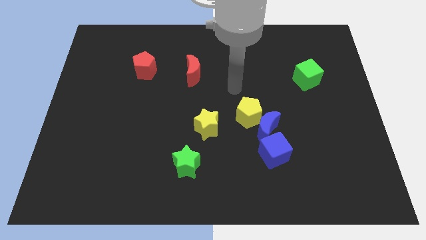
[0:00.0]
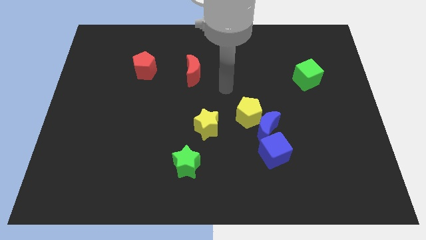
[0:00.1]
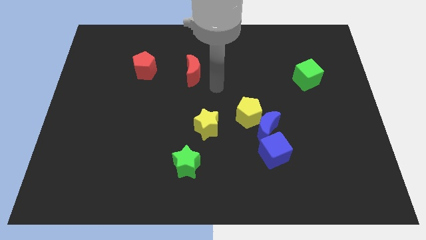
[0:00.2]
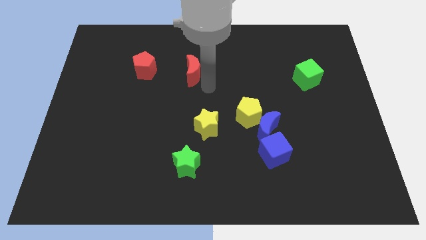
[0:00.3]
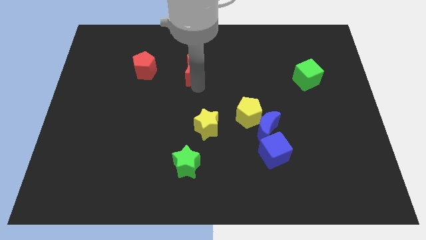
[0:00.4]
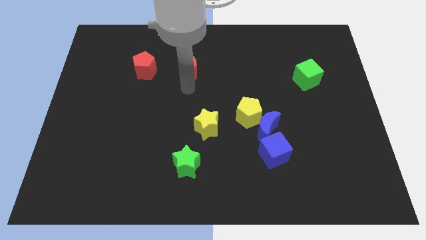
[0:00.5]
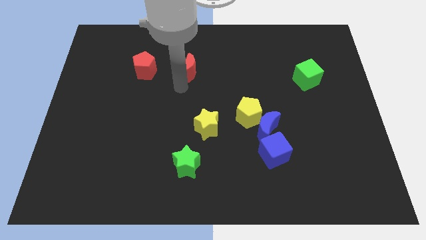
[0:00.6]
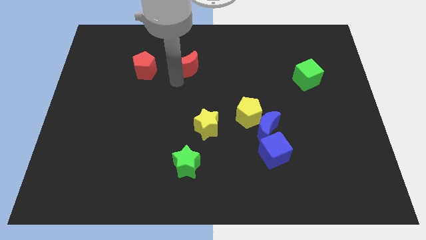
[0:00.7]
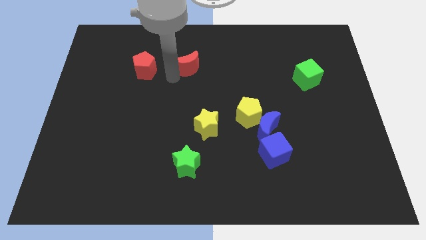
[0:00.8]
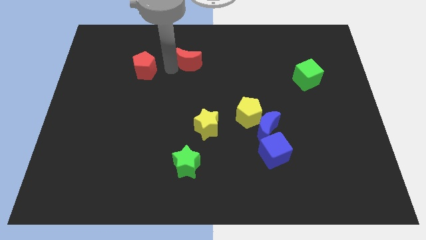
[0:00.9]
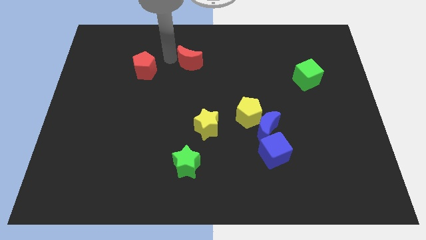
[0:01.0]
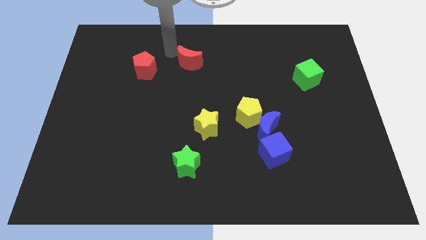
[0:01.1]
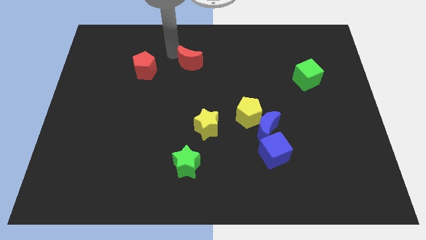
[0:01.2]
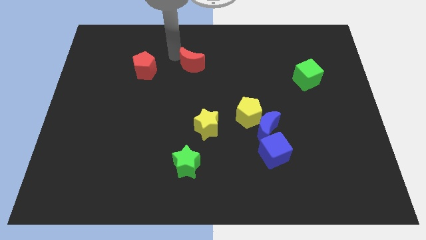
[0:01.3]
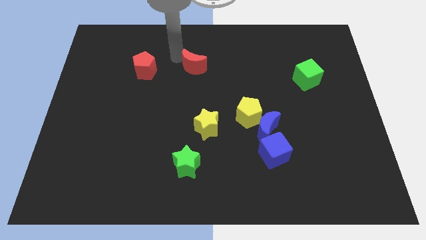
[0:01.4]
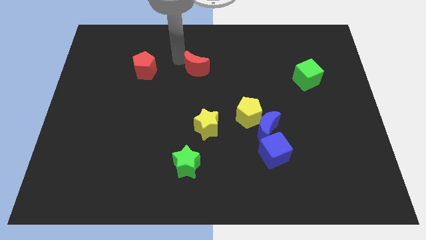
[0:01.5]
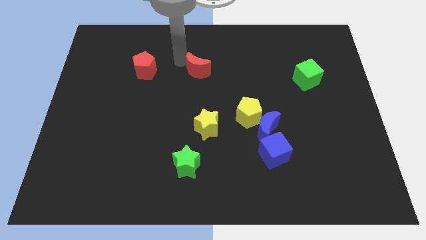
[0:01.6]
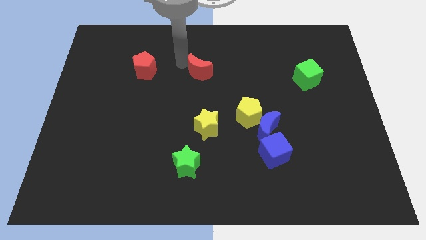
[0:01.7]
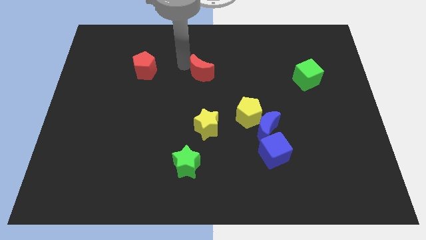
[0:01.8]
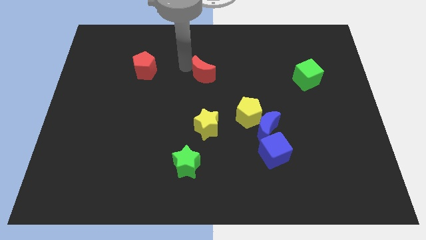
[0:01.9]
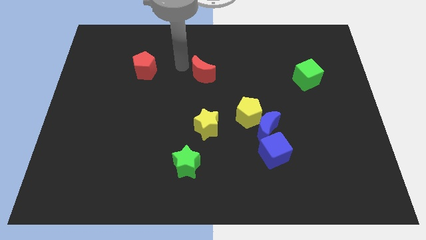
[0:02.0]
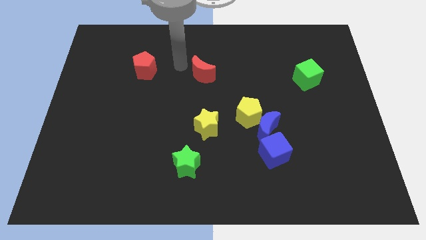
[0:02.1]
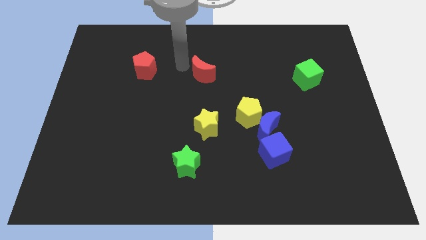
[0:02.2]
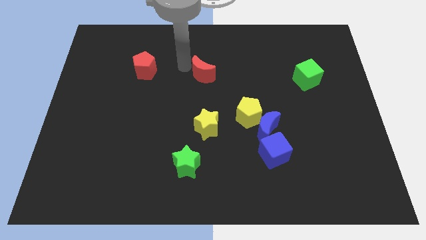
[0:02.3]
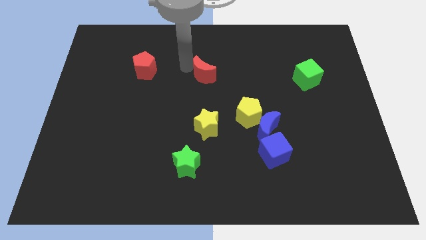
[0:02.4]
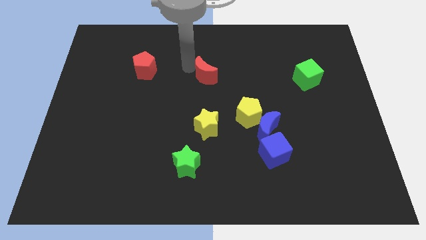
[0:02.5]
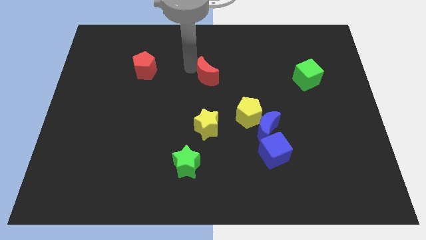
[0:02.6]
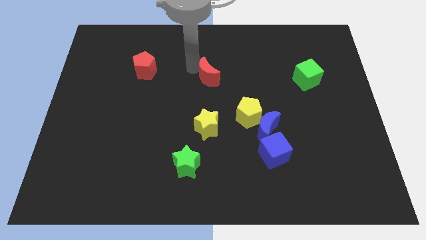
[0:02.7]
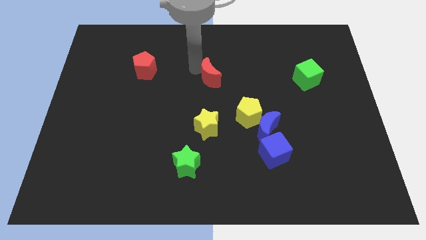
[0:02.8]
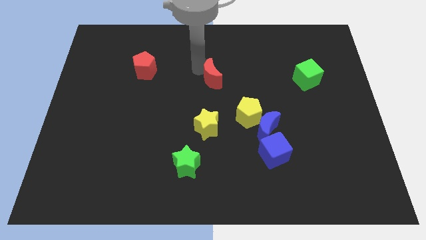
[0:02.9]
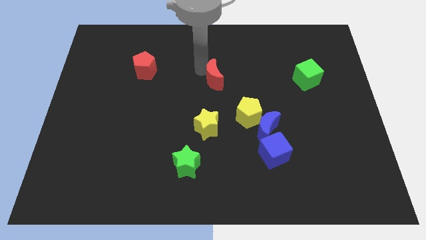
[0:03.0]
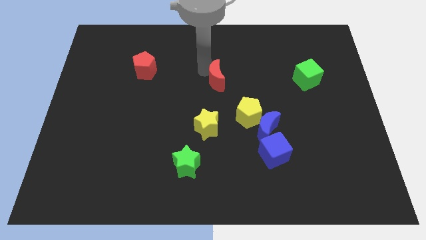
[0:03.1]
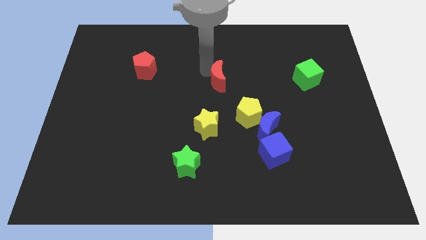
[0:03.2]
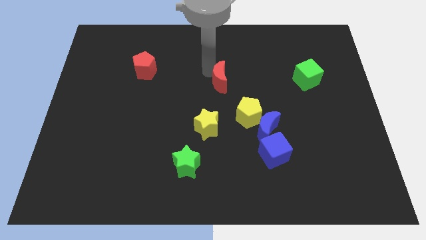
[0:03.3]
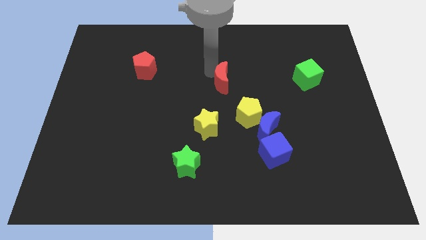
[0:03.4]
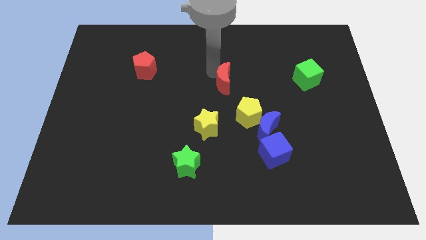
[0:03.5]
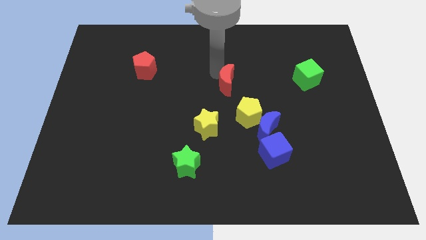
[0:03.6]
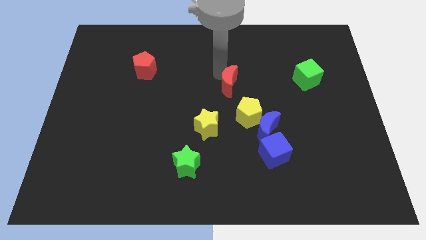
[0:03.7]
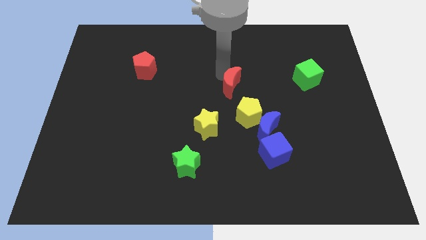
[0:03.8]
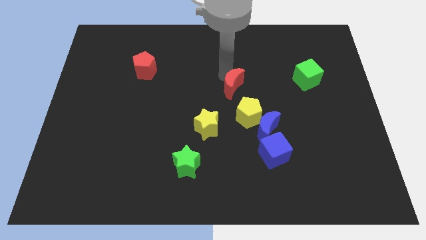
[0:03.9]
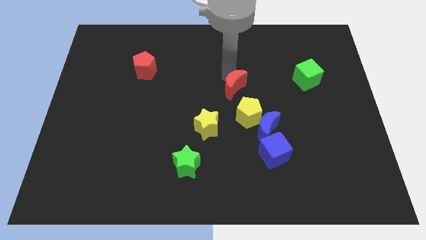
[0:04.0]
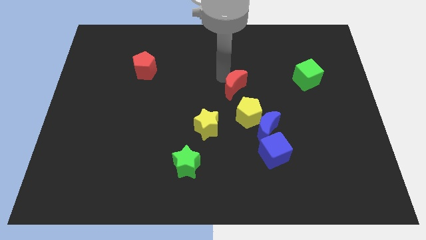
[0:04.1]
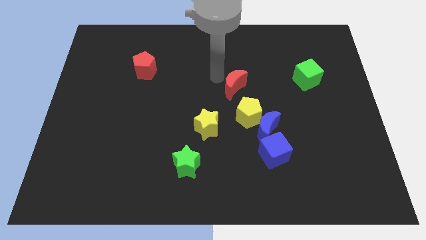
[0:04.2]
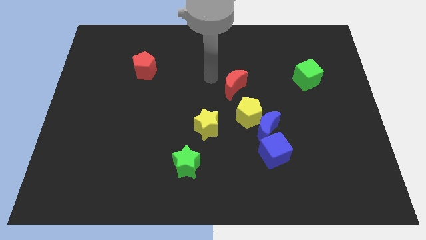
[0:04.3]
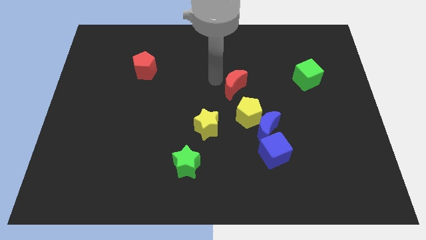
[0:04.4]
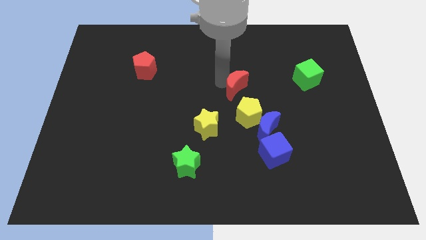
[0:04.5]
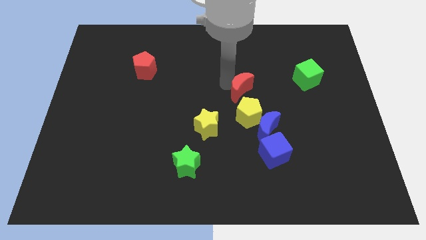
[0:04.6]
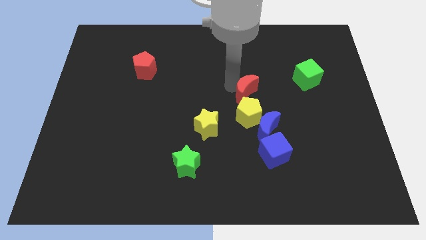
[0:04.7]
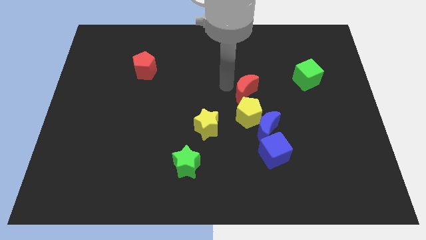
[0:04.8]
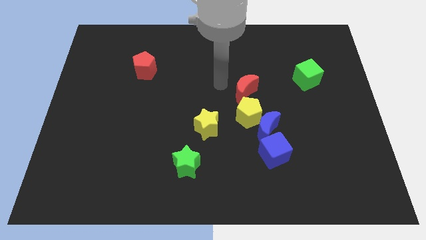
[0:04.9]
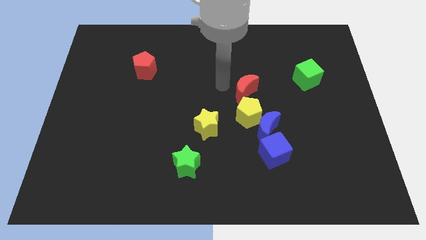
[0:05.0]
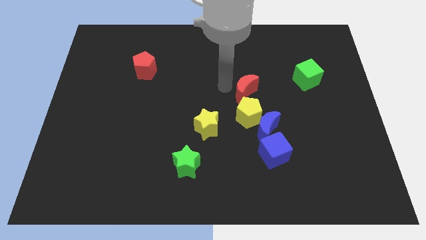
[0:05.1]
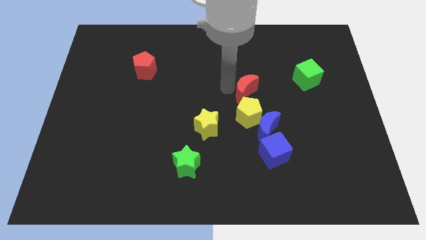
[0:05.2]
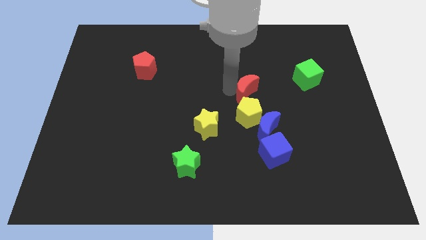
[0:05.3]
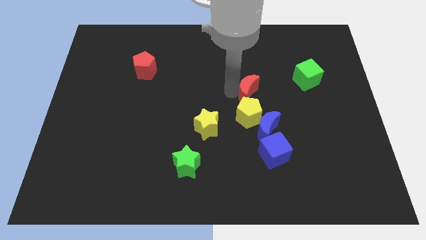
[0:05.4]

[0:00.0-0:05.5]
push the red moon diagonally up and to the right of the yellow pentagon

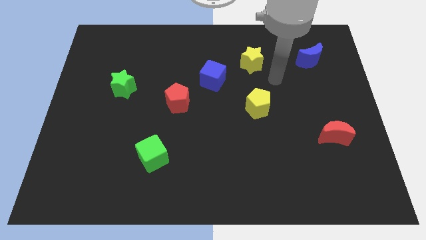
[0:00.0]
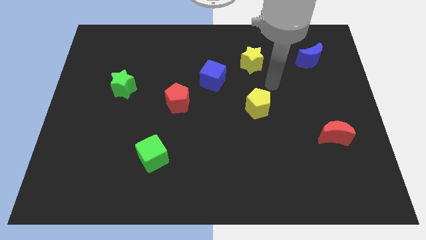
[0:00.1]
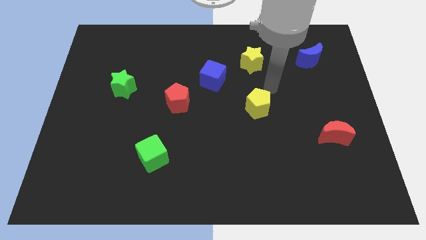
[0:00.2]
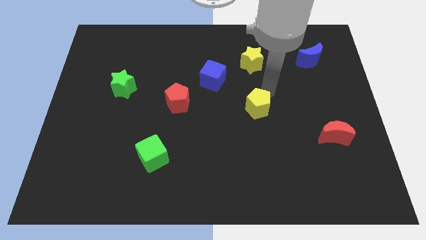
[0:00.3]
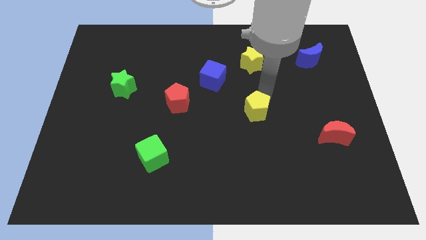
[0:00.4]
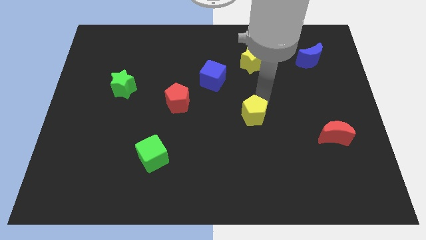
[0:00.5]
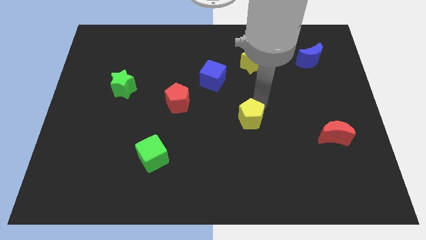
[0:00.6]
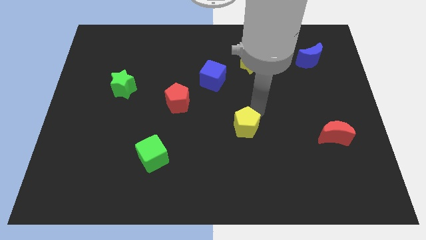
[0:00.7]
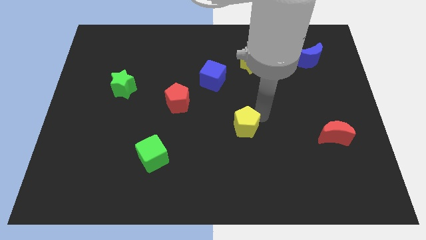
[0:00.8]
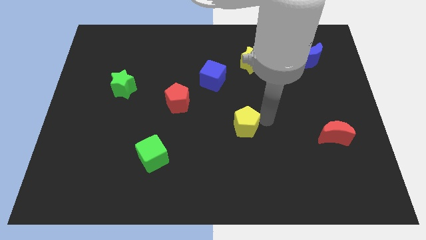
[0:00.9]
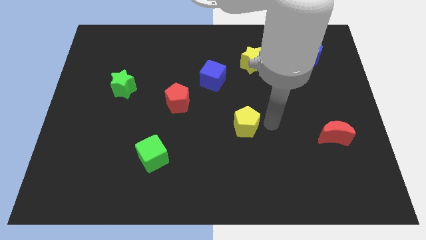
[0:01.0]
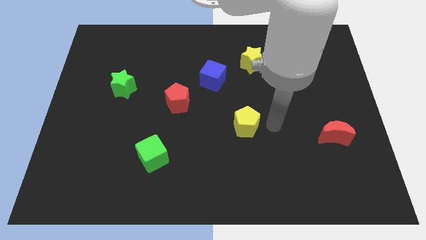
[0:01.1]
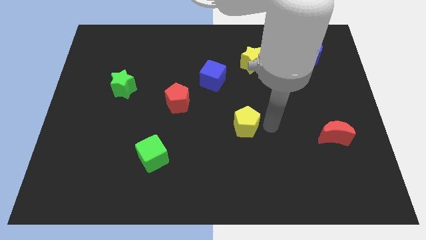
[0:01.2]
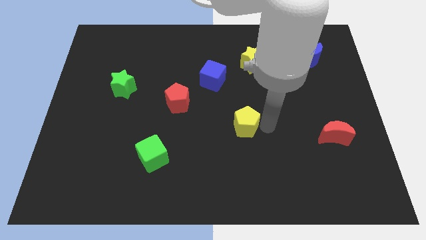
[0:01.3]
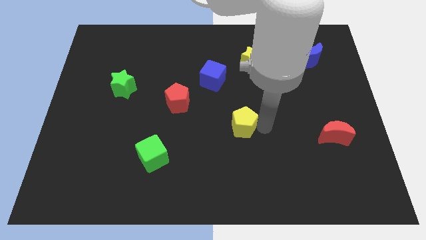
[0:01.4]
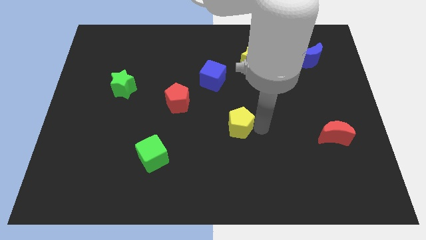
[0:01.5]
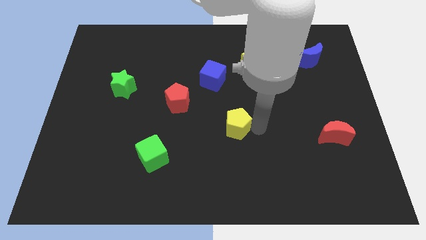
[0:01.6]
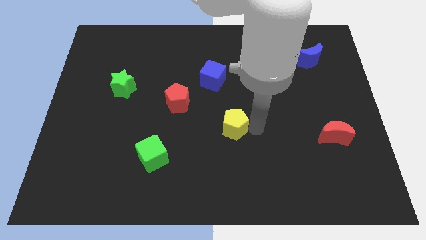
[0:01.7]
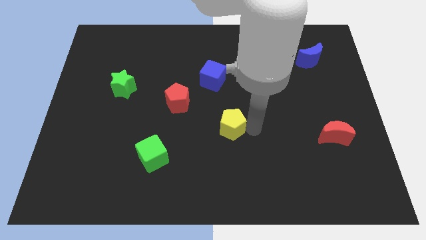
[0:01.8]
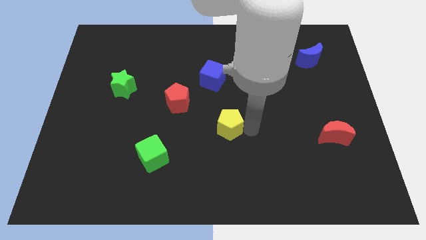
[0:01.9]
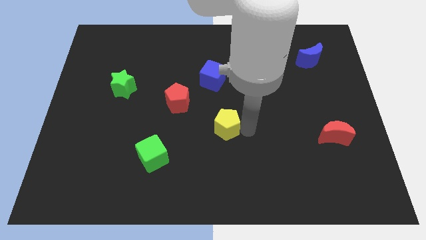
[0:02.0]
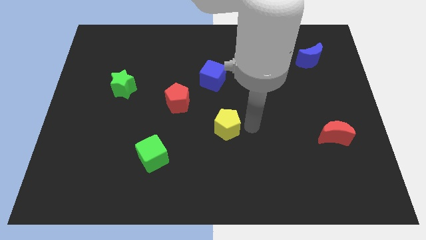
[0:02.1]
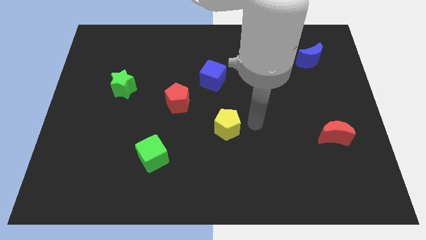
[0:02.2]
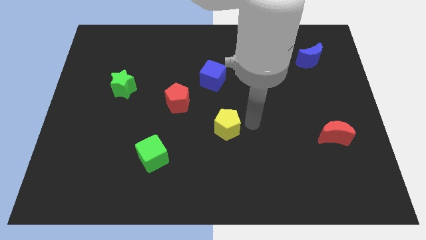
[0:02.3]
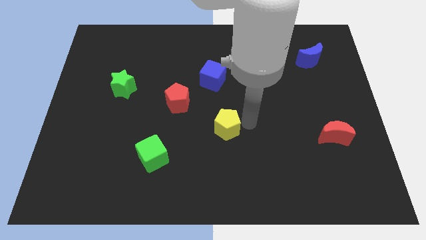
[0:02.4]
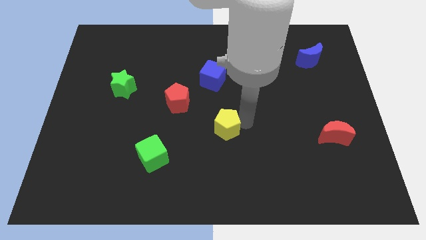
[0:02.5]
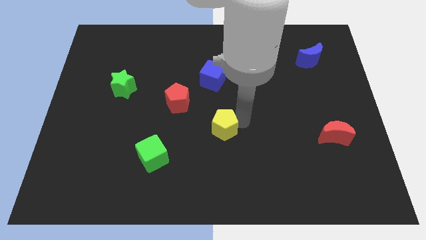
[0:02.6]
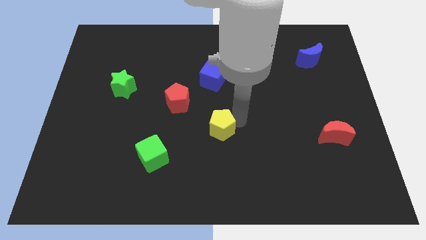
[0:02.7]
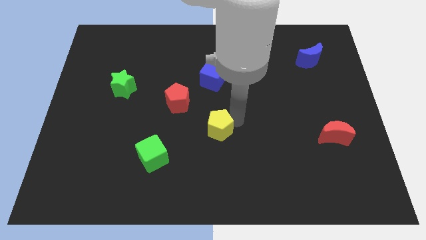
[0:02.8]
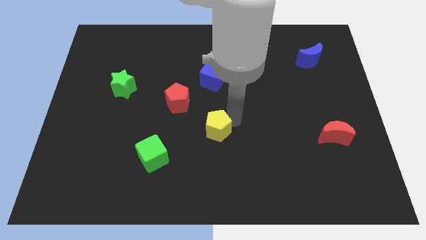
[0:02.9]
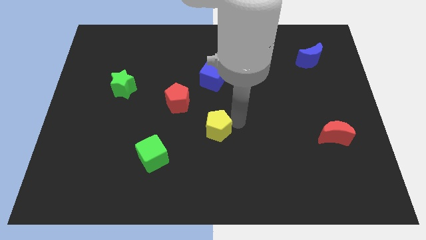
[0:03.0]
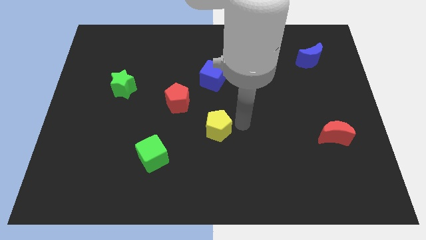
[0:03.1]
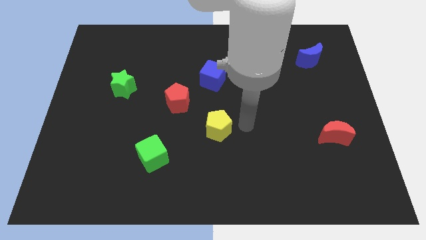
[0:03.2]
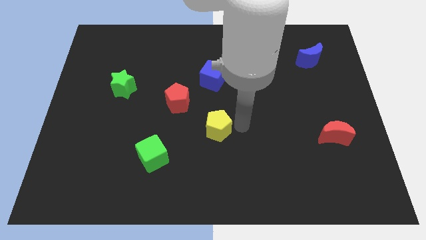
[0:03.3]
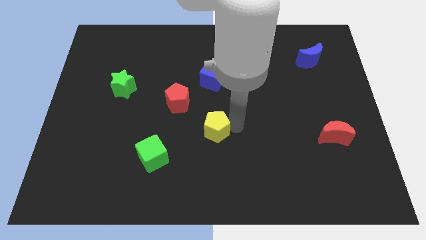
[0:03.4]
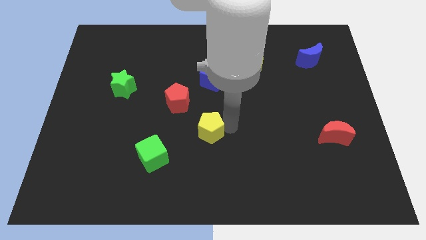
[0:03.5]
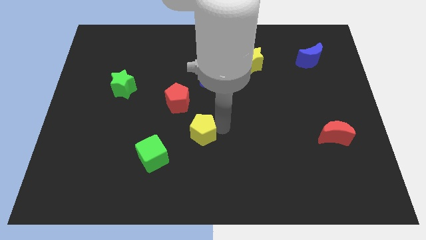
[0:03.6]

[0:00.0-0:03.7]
put the yellow pentagon diagonally up and to the right of the green cube
